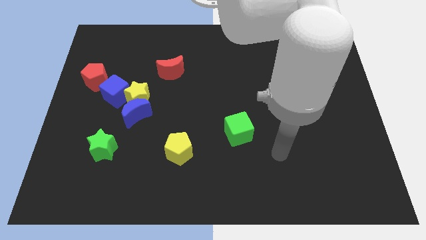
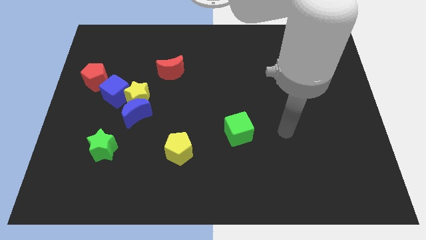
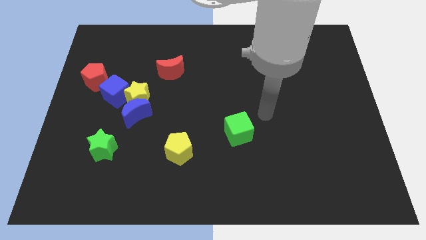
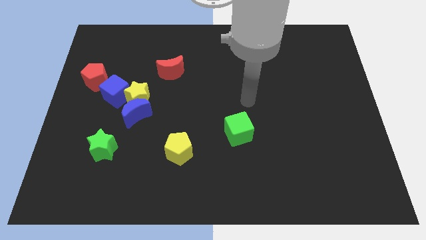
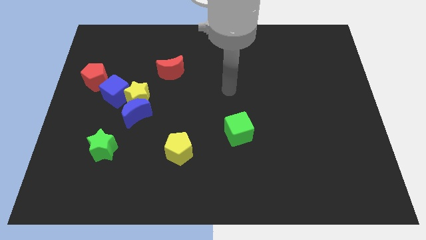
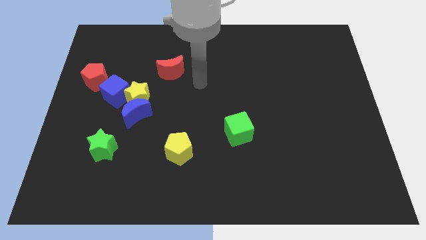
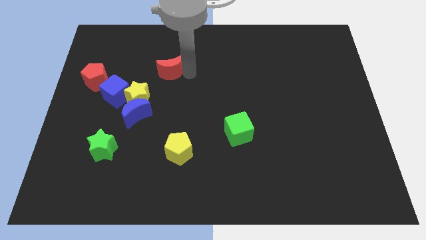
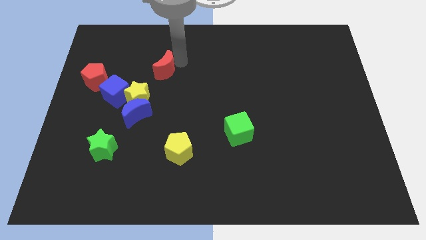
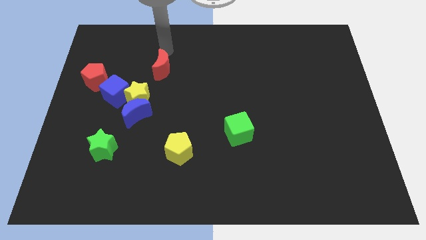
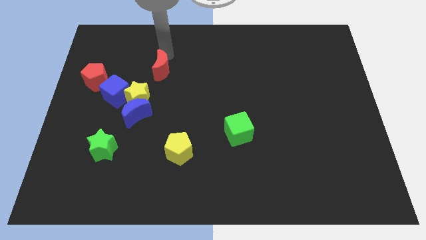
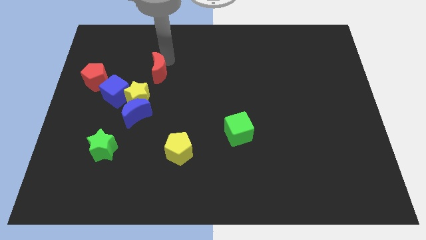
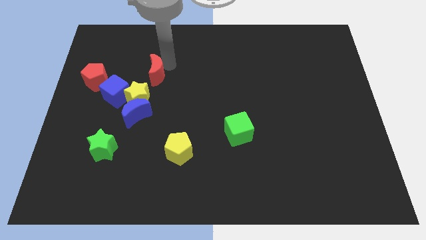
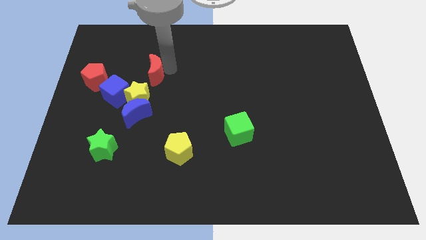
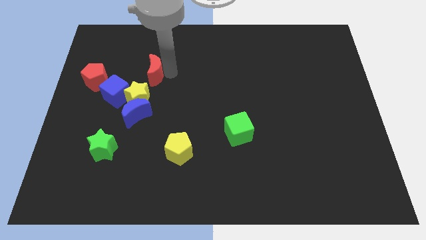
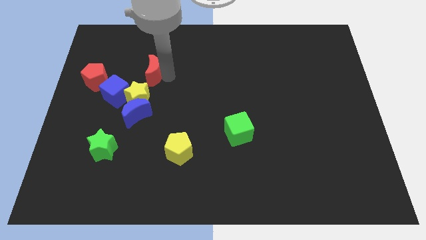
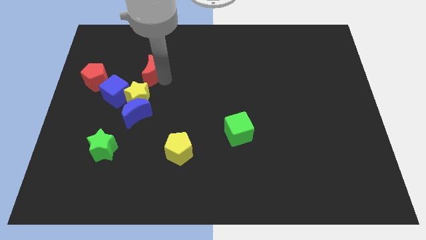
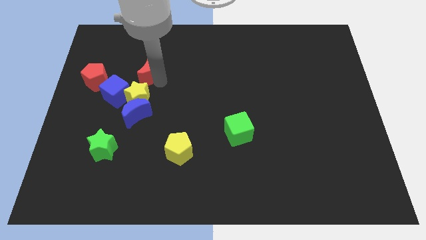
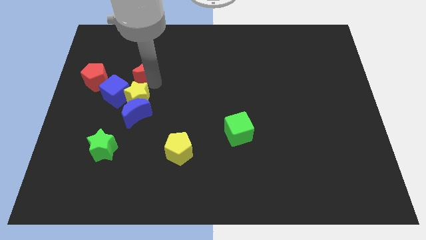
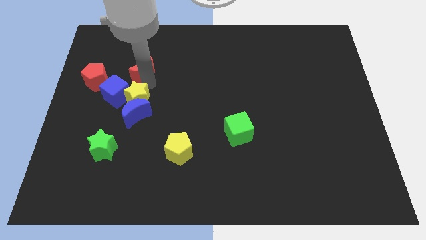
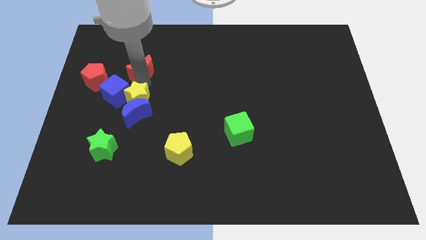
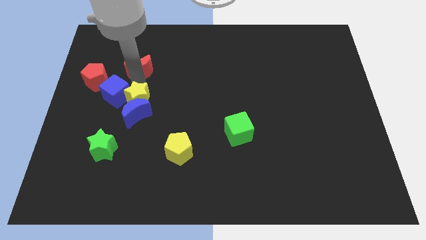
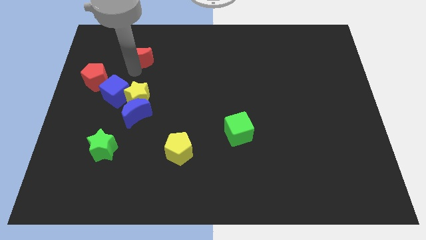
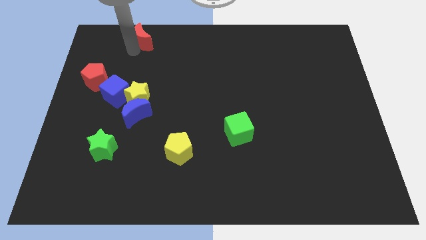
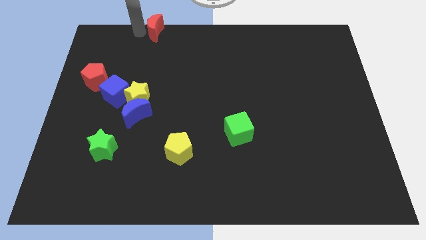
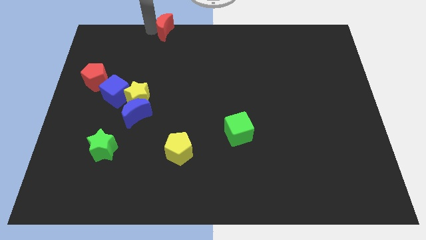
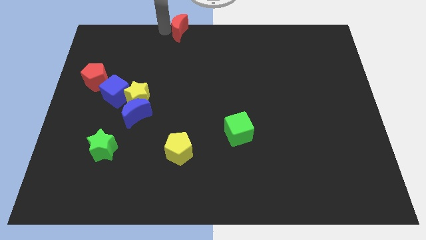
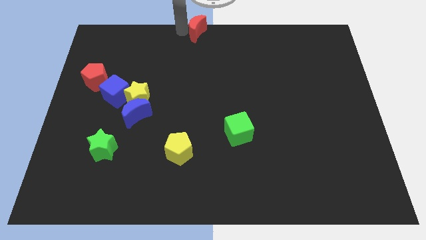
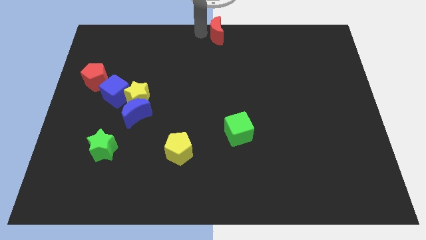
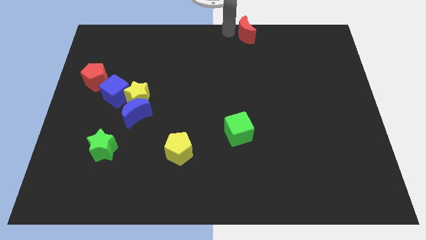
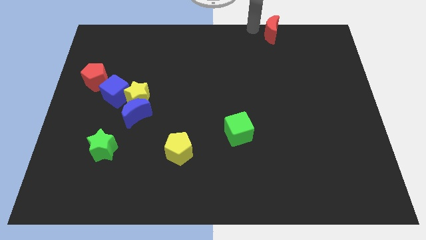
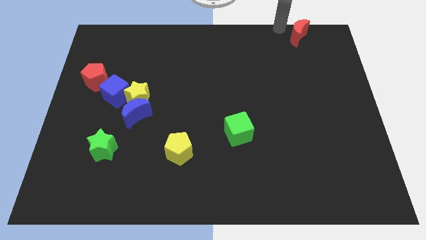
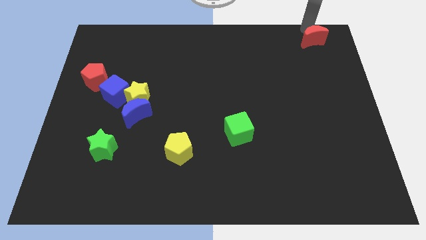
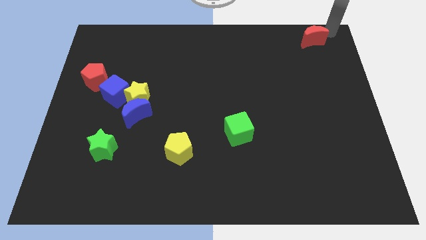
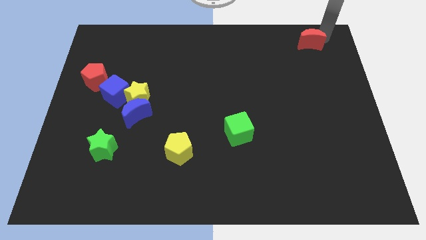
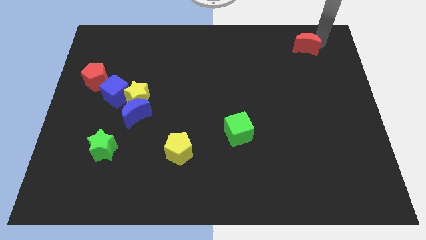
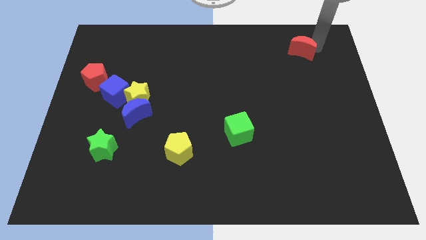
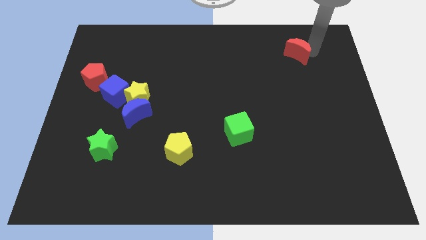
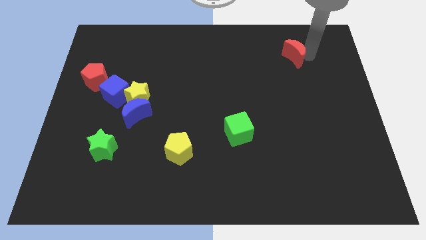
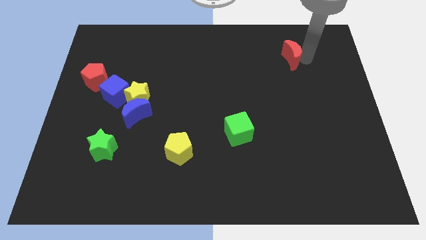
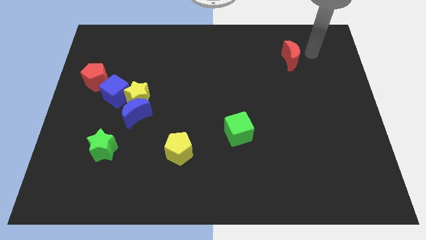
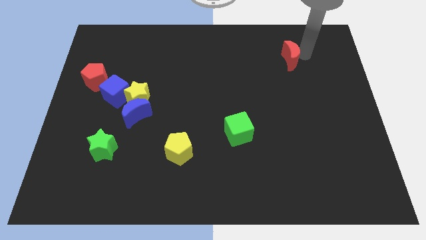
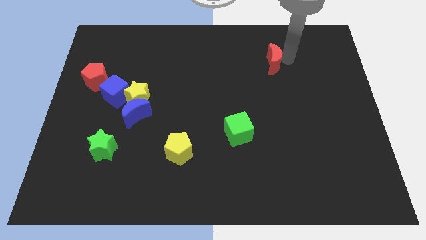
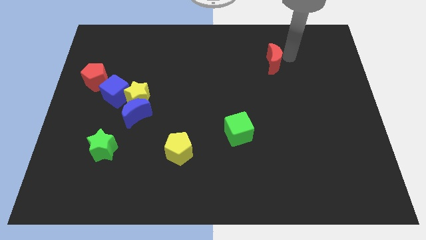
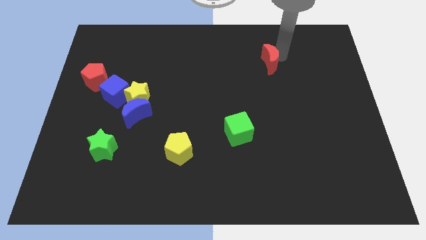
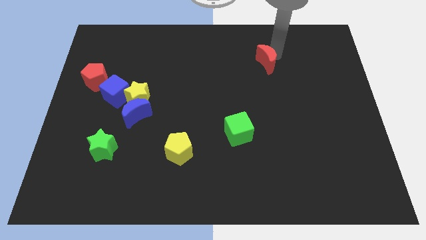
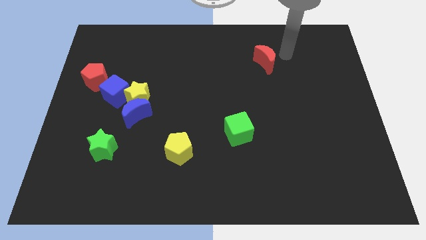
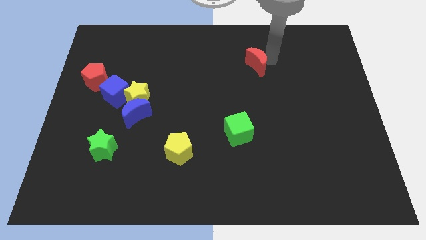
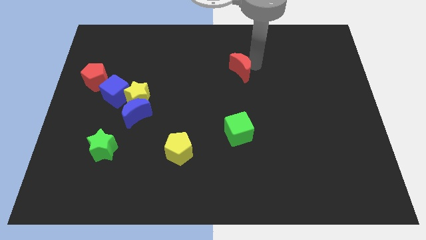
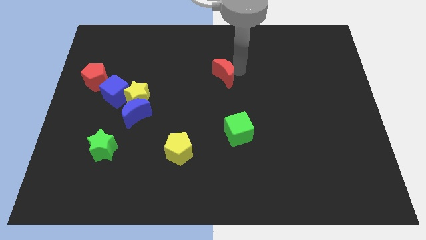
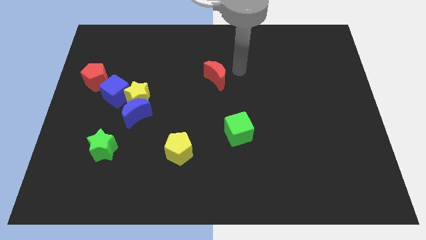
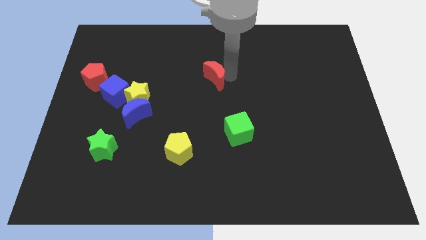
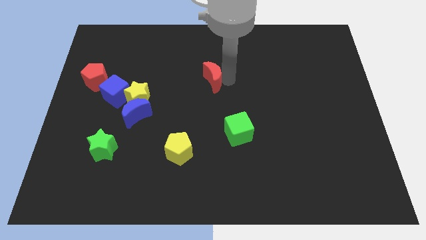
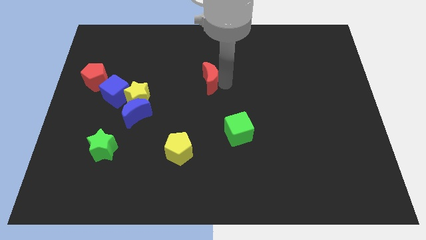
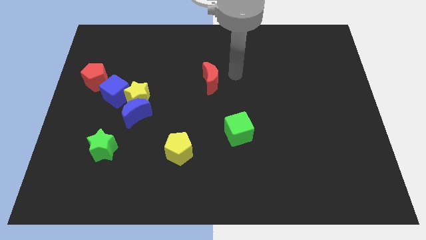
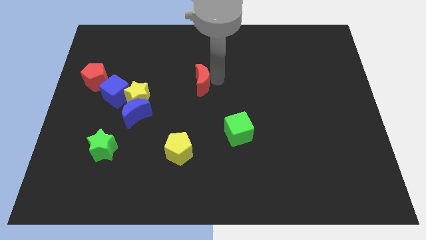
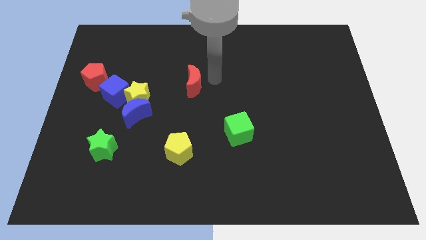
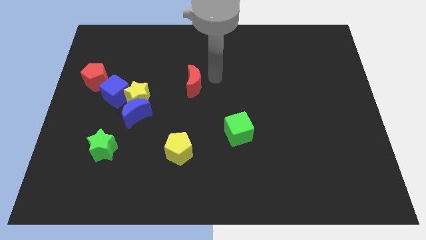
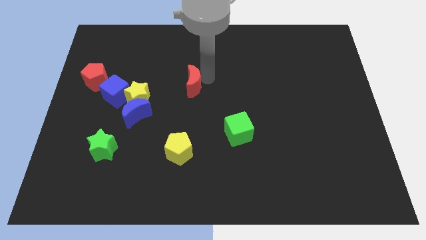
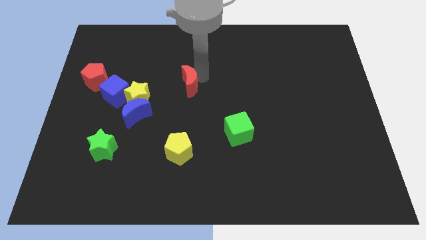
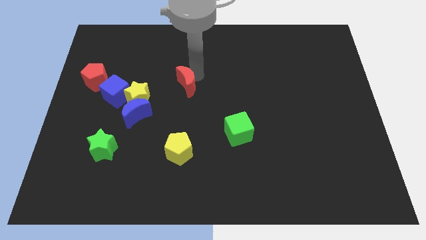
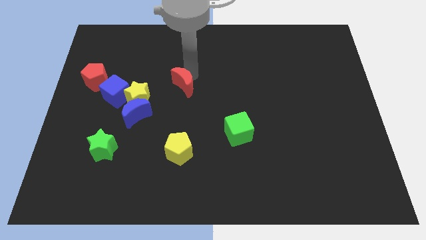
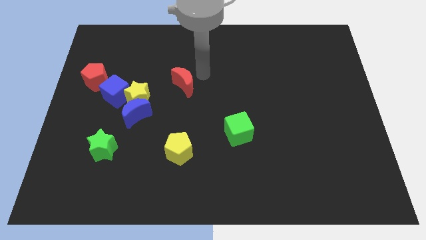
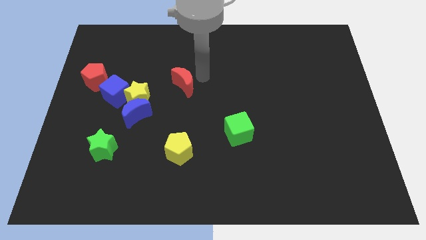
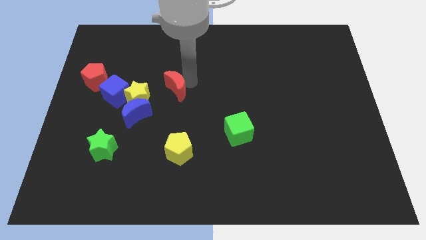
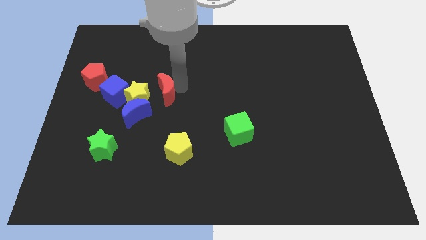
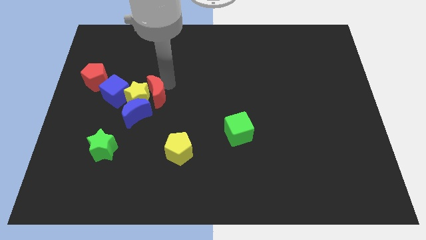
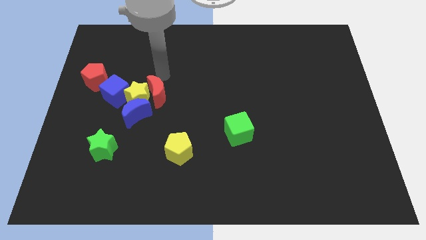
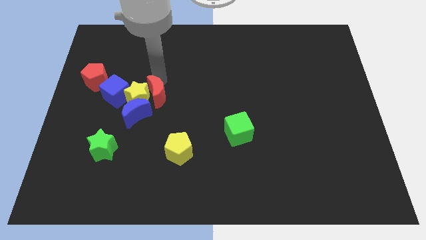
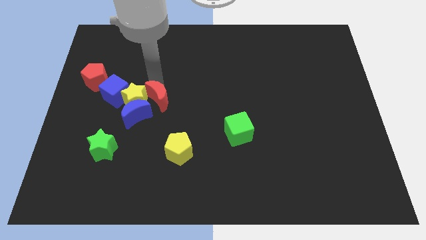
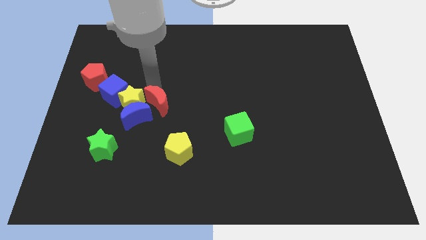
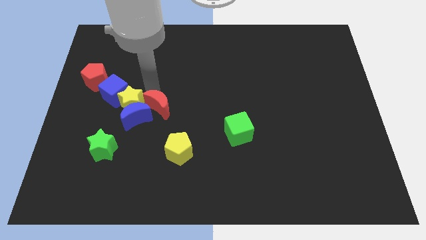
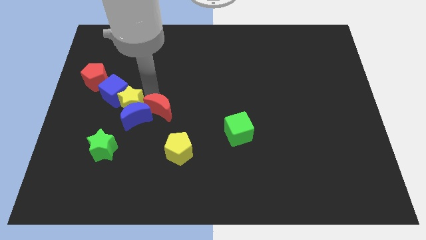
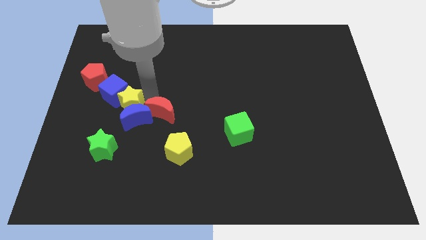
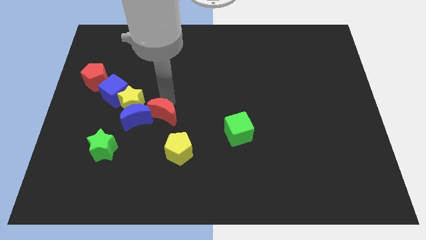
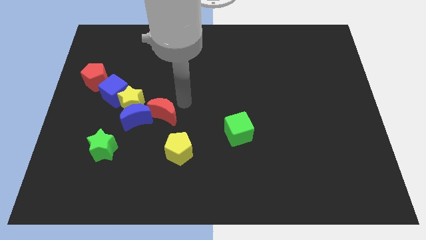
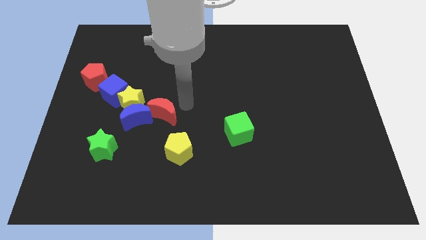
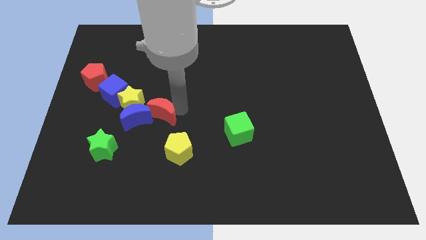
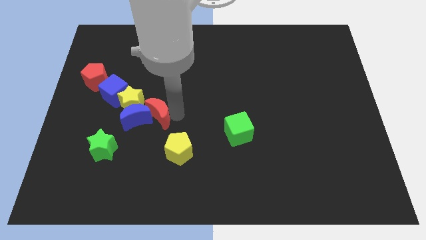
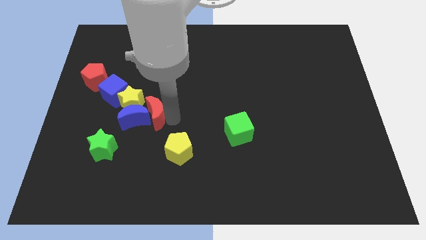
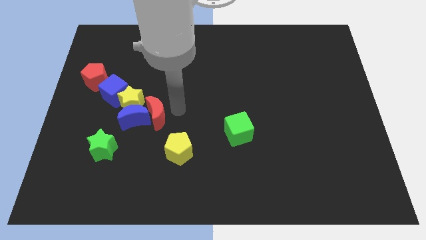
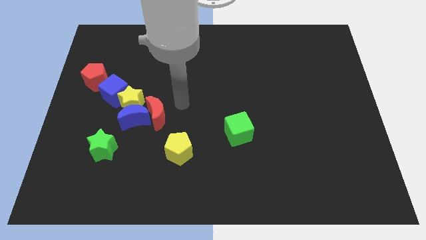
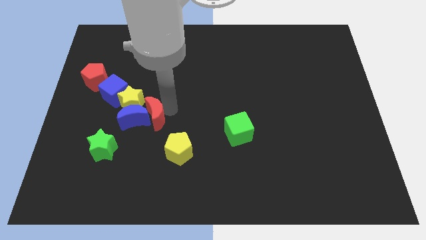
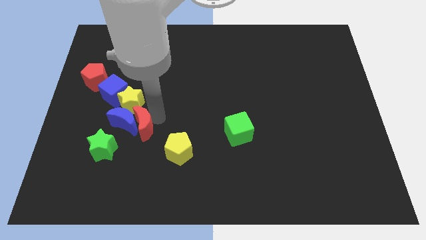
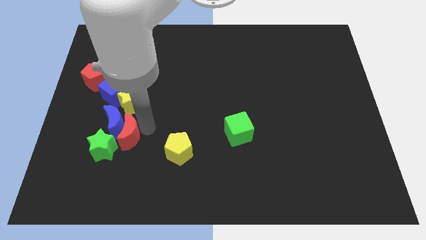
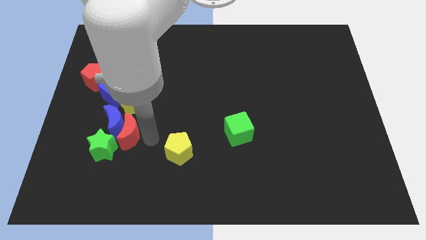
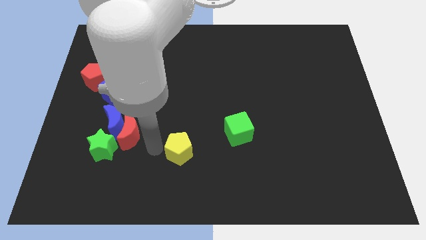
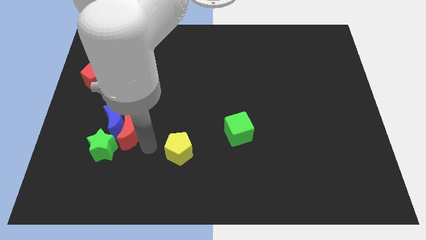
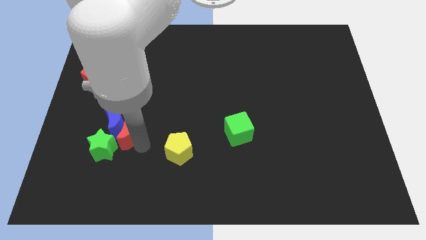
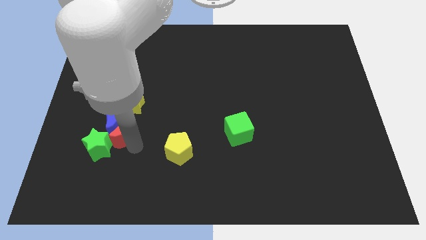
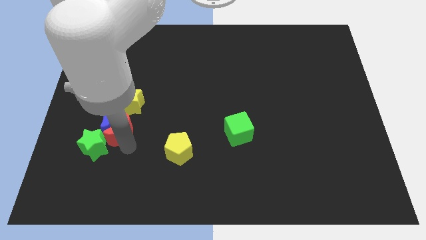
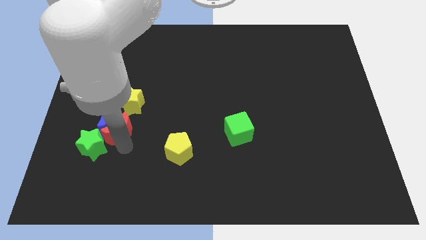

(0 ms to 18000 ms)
move the red moon diagonally down and to the left of the yellow star
